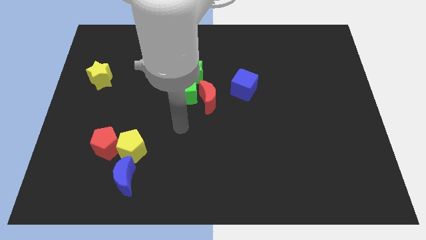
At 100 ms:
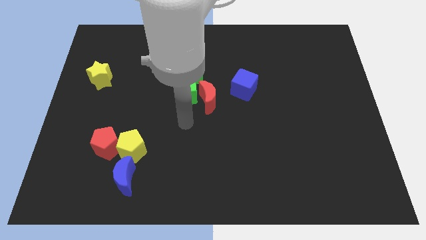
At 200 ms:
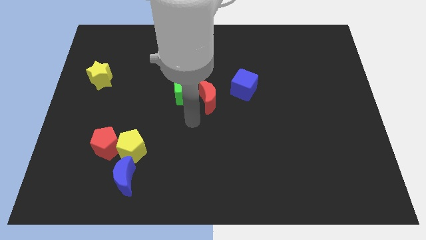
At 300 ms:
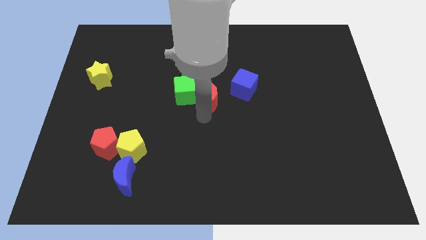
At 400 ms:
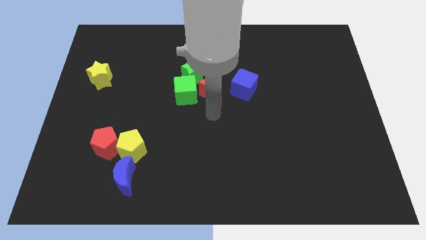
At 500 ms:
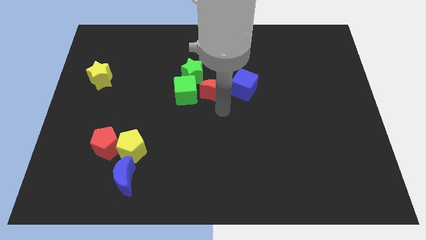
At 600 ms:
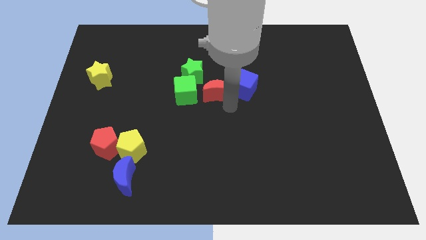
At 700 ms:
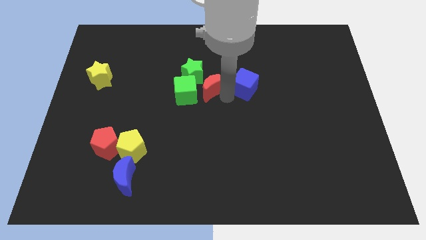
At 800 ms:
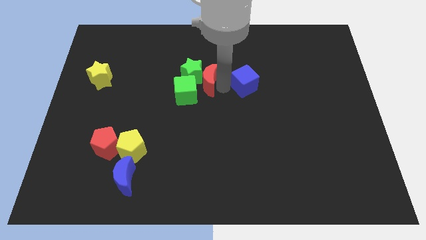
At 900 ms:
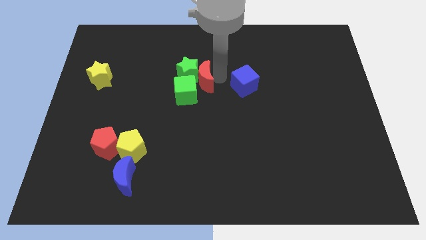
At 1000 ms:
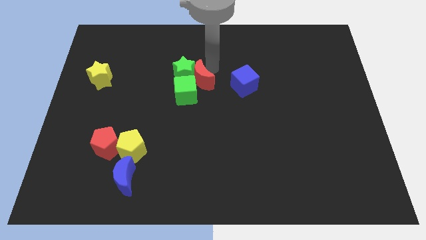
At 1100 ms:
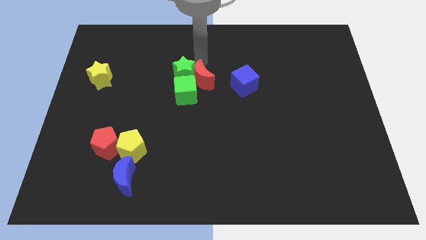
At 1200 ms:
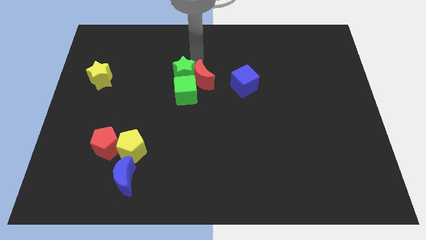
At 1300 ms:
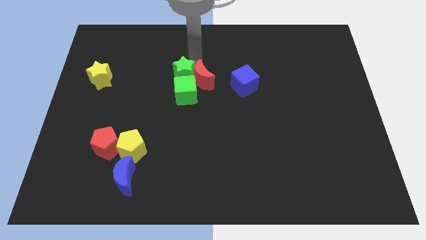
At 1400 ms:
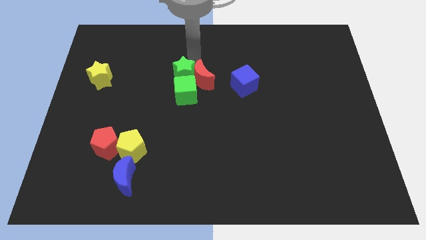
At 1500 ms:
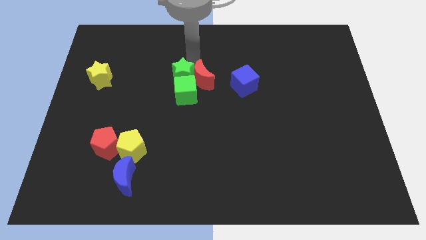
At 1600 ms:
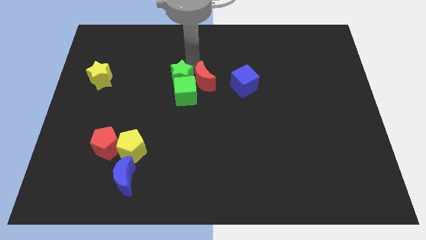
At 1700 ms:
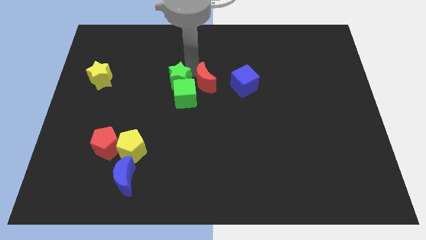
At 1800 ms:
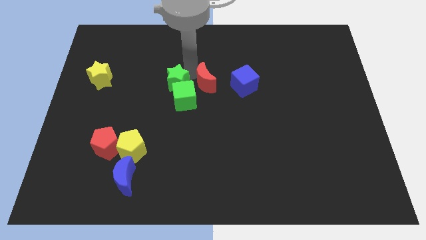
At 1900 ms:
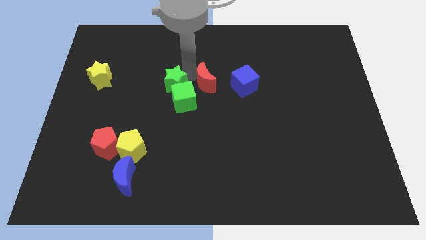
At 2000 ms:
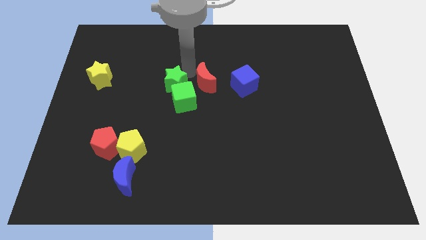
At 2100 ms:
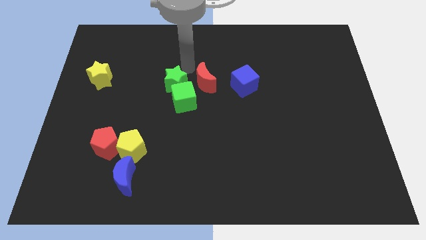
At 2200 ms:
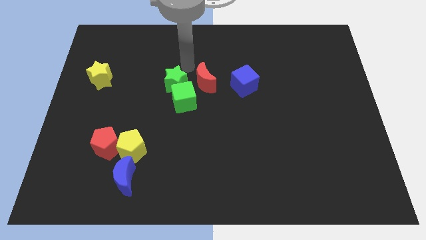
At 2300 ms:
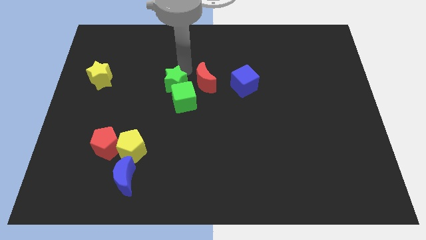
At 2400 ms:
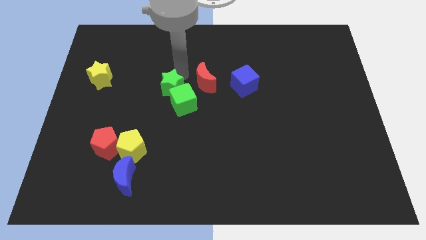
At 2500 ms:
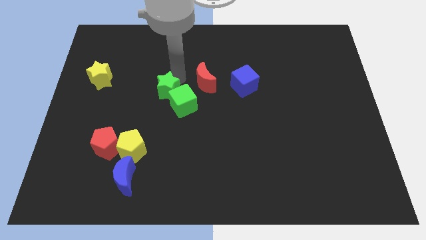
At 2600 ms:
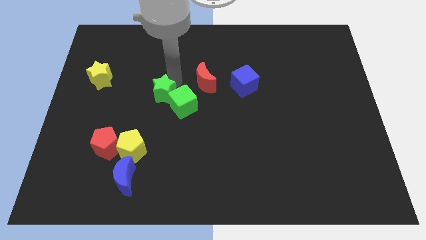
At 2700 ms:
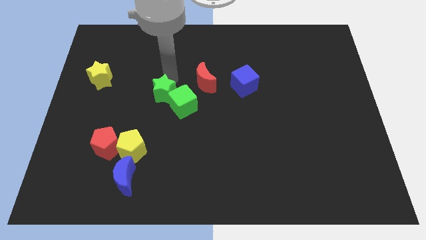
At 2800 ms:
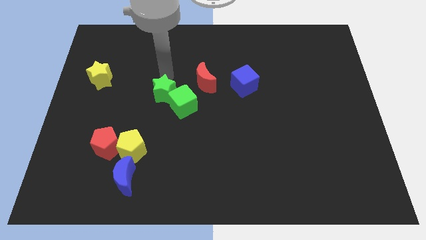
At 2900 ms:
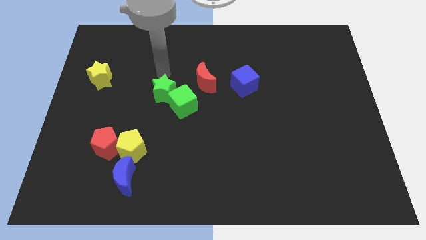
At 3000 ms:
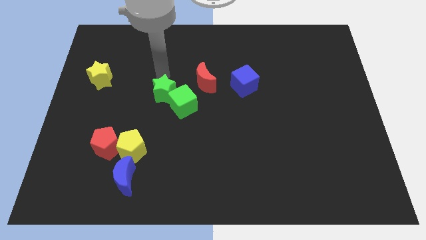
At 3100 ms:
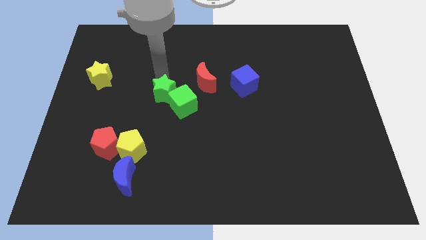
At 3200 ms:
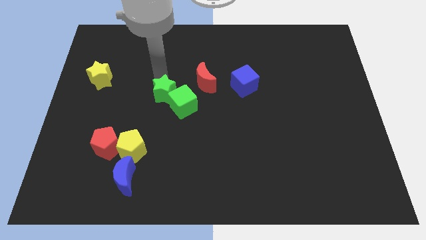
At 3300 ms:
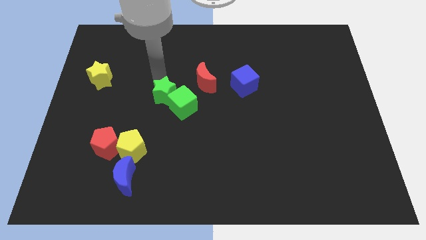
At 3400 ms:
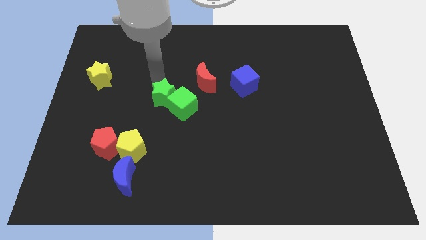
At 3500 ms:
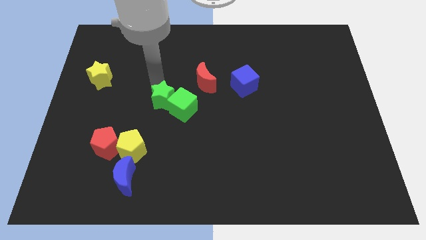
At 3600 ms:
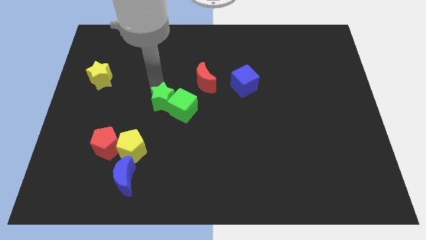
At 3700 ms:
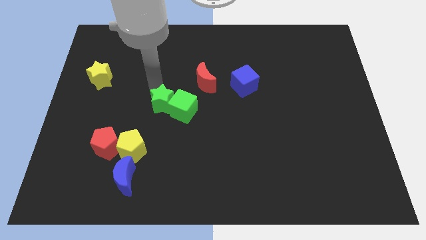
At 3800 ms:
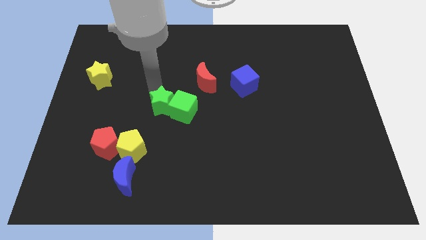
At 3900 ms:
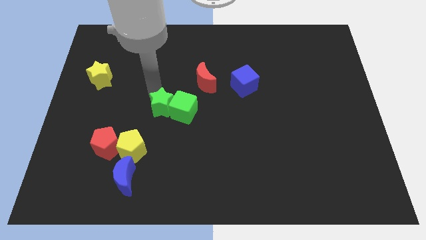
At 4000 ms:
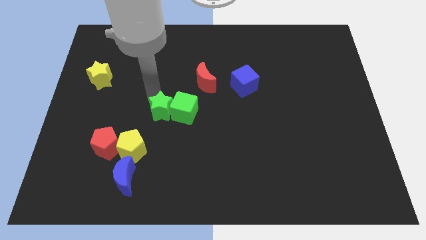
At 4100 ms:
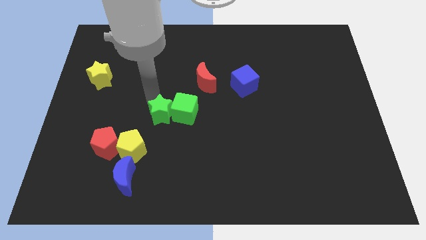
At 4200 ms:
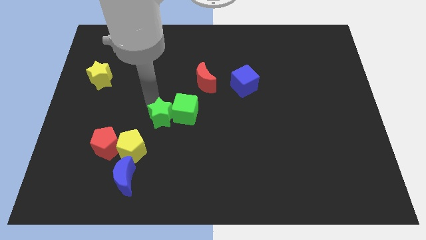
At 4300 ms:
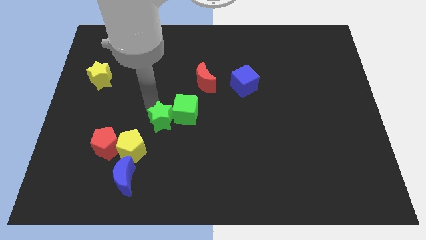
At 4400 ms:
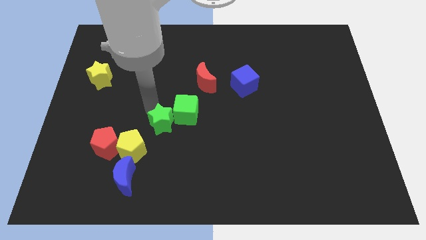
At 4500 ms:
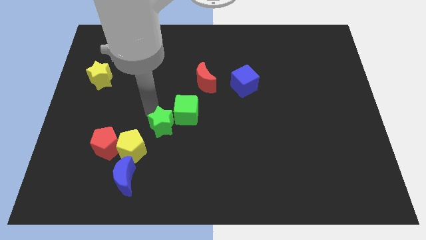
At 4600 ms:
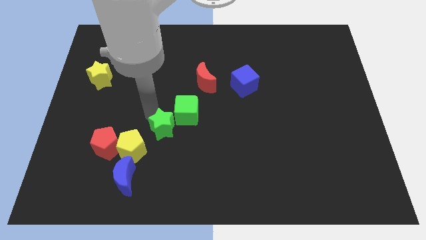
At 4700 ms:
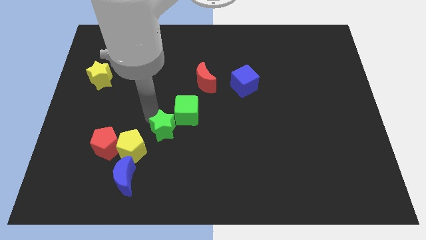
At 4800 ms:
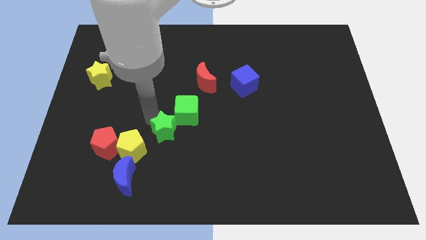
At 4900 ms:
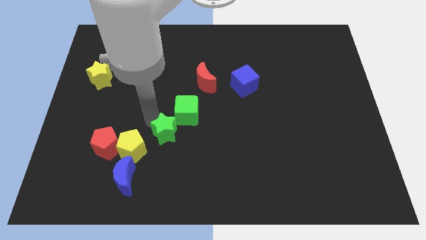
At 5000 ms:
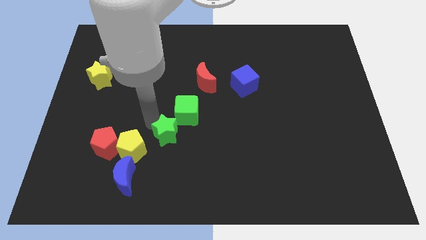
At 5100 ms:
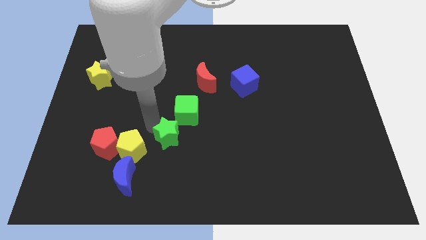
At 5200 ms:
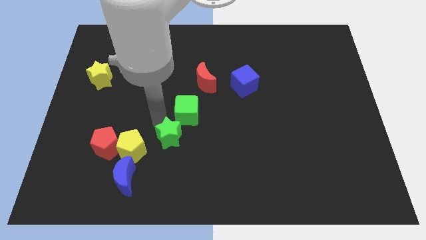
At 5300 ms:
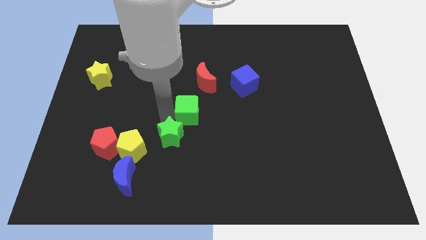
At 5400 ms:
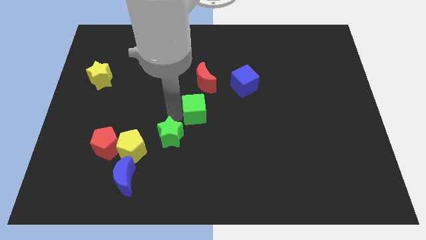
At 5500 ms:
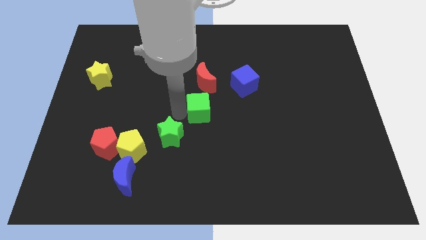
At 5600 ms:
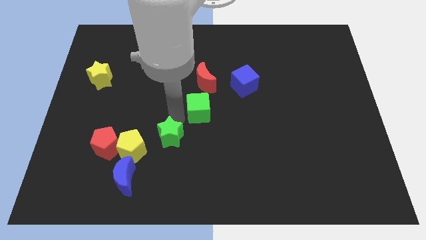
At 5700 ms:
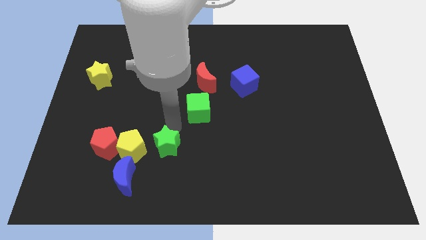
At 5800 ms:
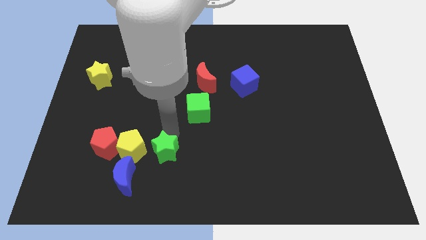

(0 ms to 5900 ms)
put the green star to the bottom right side of the yellow pentagon

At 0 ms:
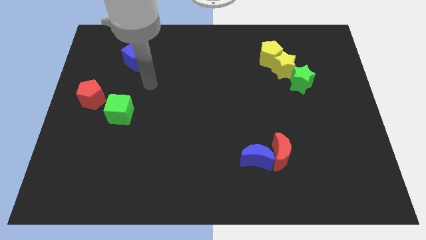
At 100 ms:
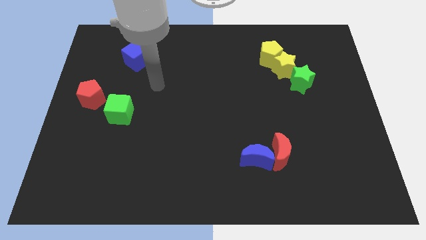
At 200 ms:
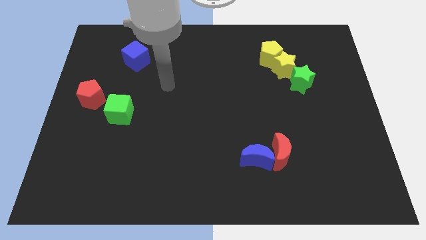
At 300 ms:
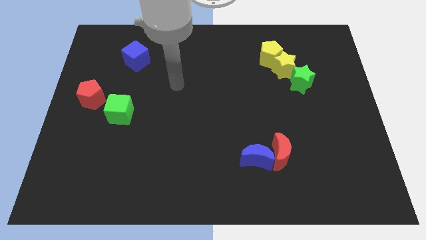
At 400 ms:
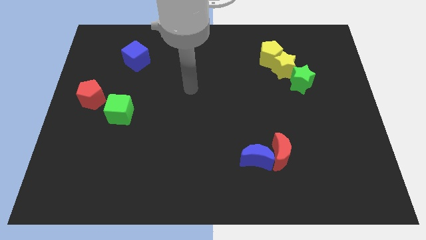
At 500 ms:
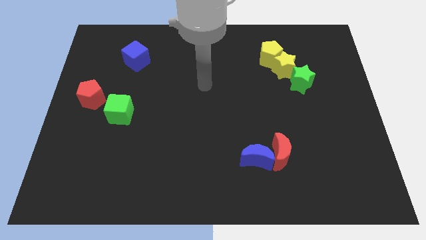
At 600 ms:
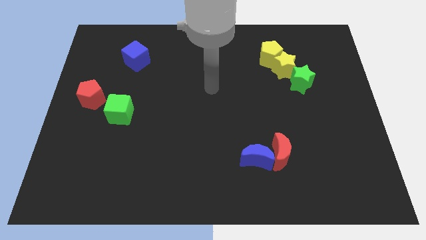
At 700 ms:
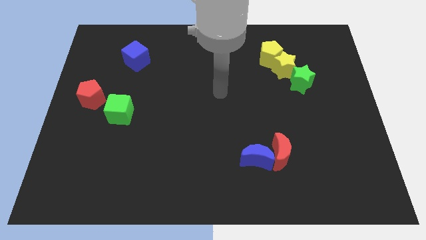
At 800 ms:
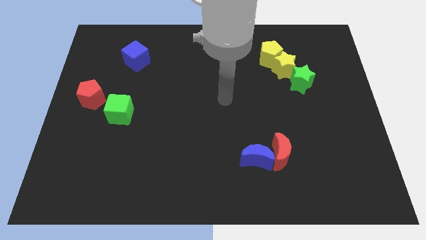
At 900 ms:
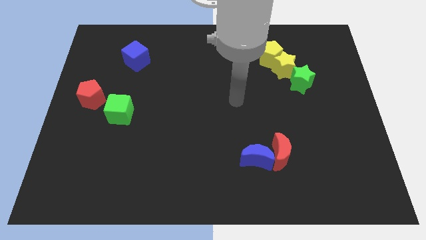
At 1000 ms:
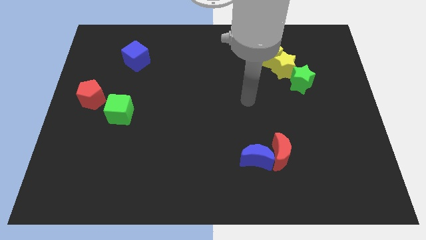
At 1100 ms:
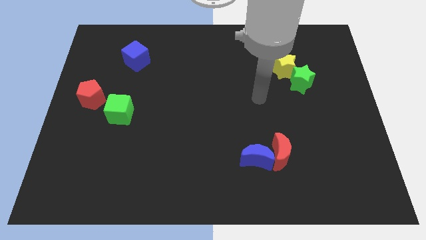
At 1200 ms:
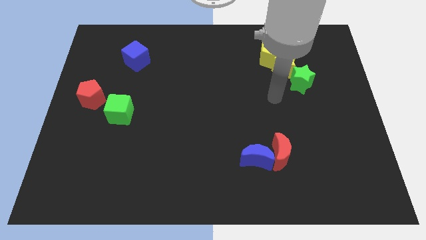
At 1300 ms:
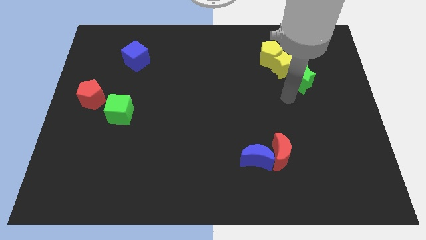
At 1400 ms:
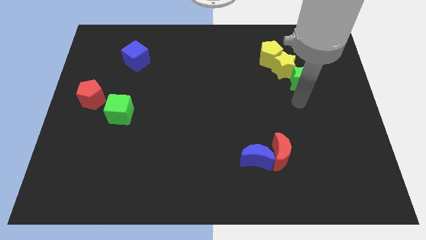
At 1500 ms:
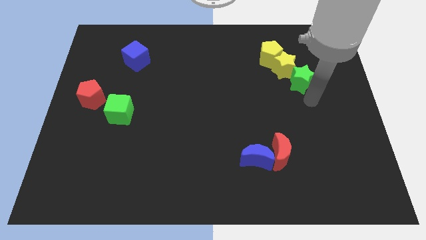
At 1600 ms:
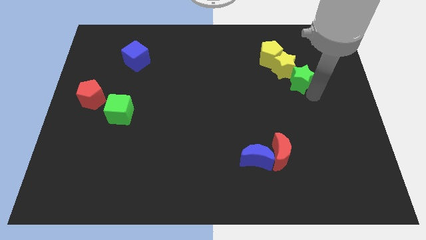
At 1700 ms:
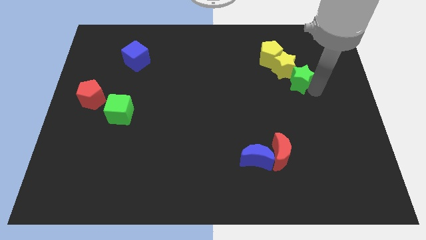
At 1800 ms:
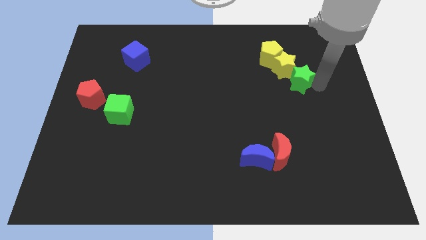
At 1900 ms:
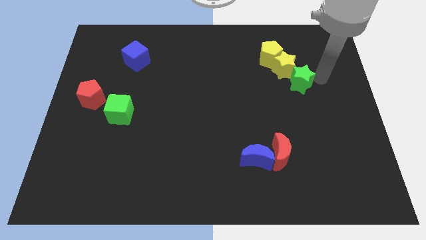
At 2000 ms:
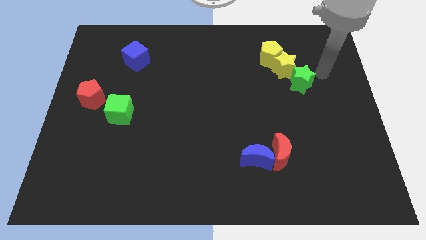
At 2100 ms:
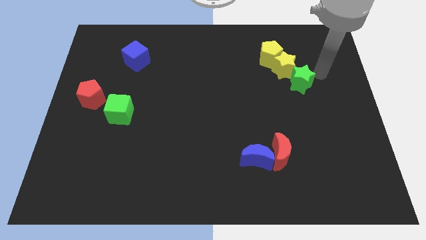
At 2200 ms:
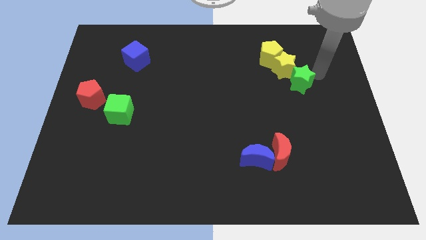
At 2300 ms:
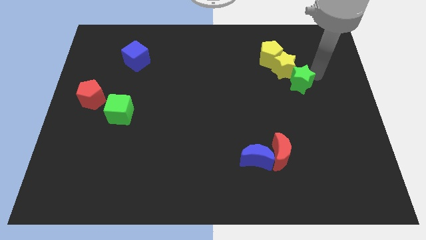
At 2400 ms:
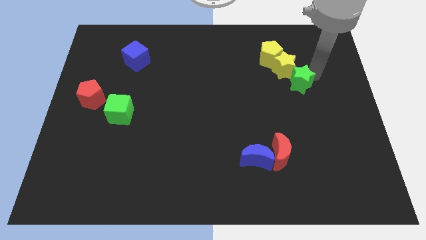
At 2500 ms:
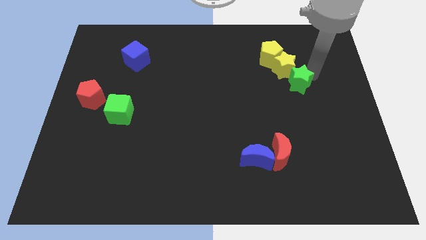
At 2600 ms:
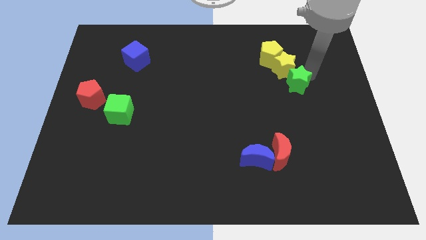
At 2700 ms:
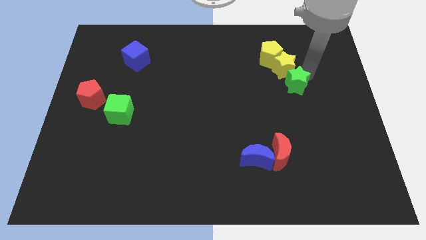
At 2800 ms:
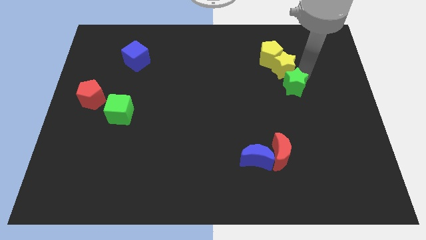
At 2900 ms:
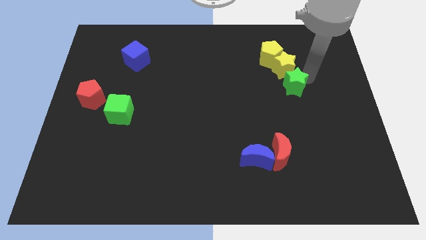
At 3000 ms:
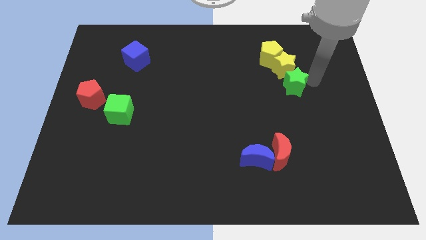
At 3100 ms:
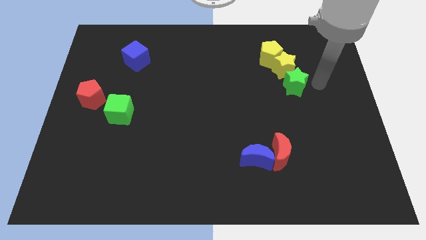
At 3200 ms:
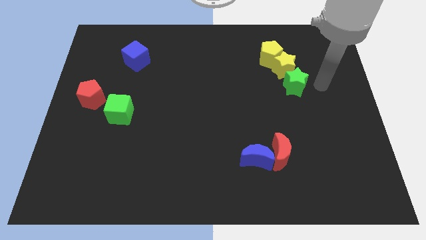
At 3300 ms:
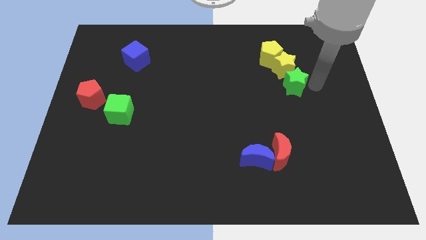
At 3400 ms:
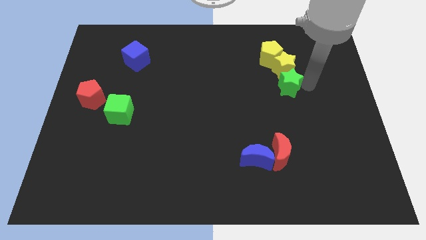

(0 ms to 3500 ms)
put the green star diagonally down and to the left of the yellow star
